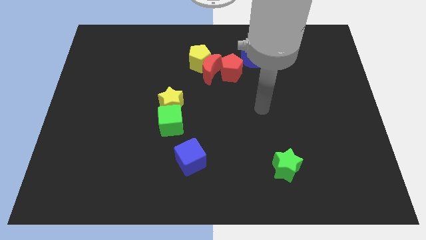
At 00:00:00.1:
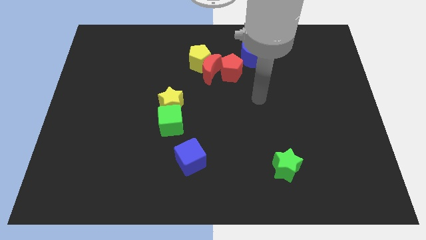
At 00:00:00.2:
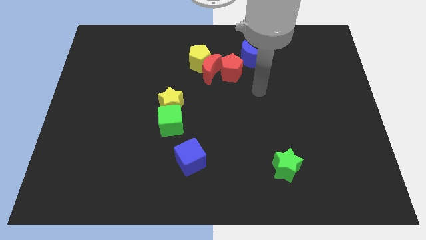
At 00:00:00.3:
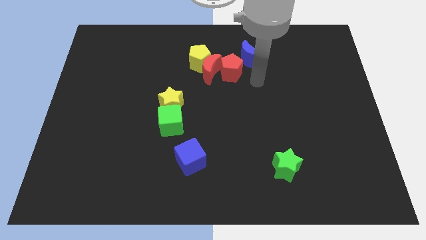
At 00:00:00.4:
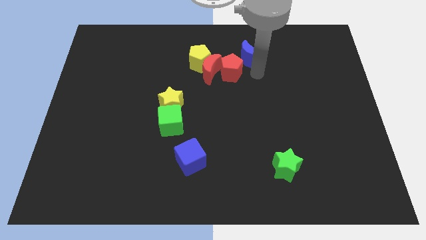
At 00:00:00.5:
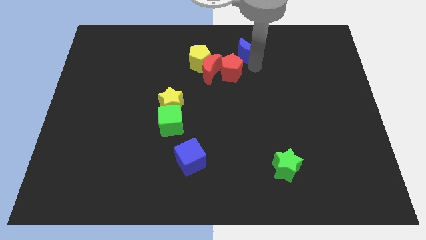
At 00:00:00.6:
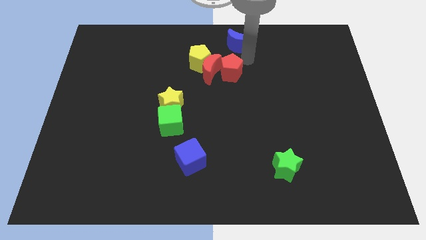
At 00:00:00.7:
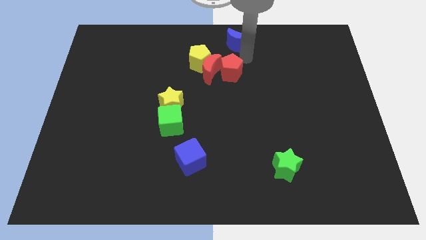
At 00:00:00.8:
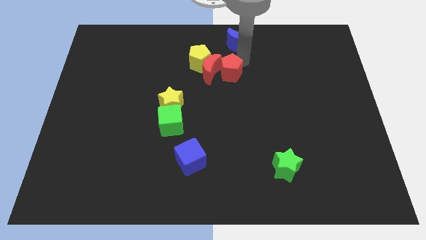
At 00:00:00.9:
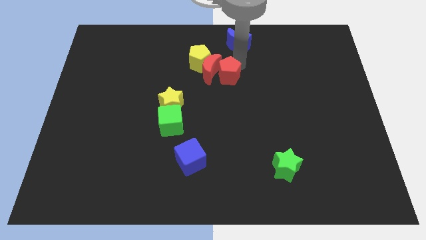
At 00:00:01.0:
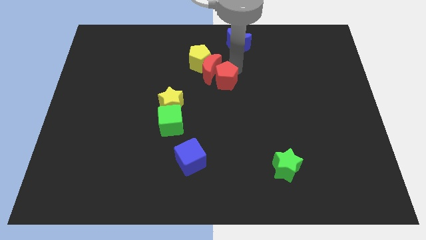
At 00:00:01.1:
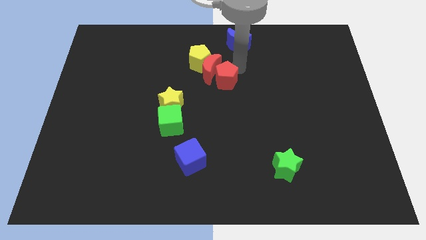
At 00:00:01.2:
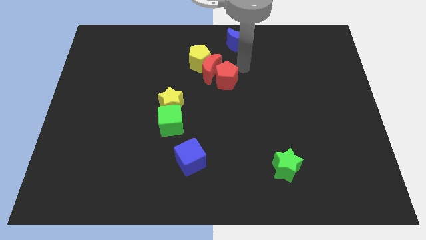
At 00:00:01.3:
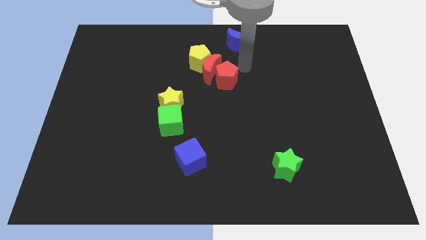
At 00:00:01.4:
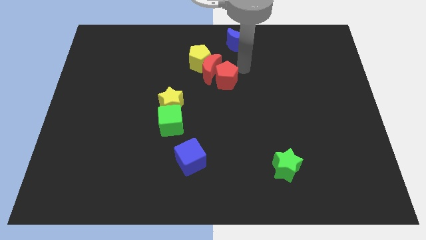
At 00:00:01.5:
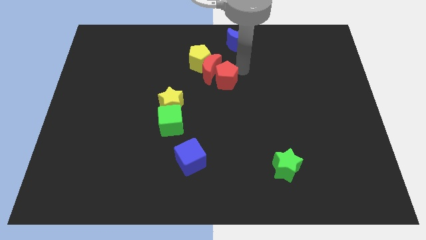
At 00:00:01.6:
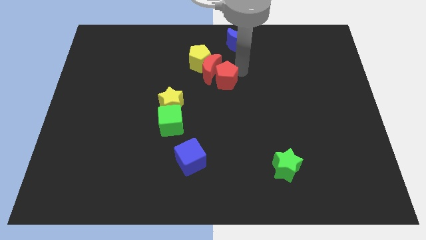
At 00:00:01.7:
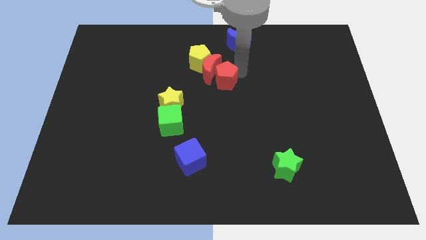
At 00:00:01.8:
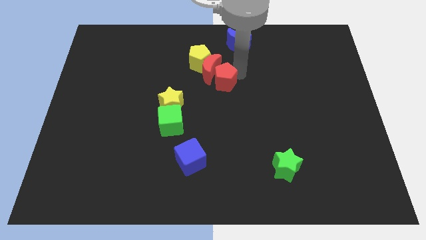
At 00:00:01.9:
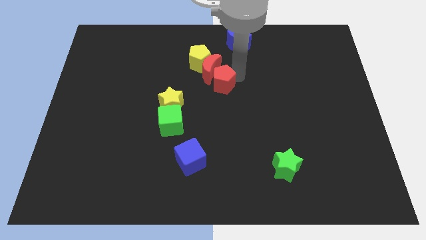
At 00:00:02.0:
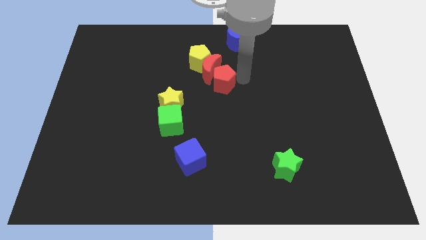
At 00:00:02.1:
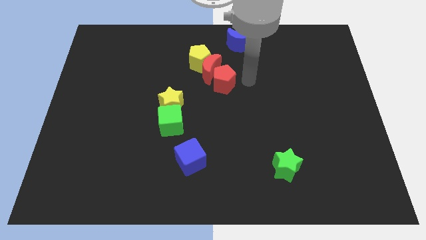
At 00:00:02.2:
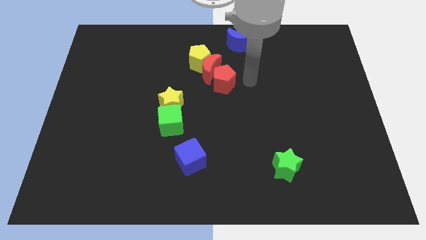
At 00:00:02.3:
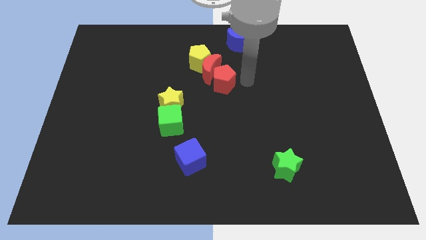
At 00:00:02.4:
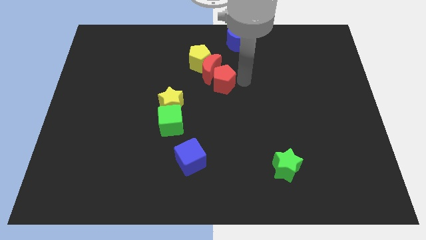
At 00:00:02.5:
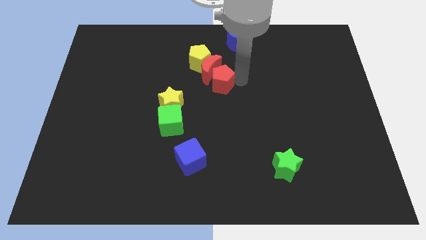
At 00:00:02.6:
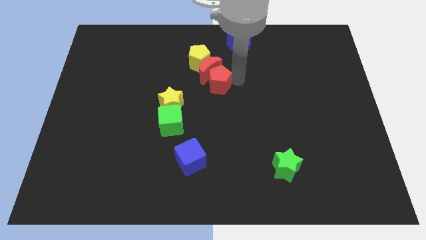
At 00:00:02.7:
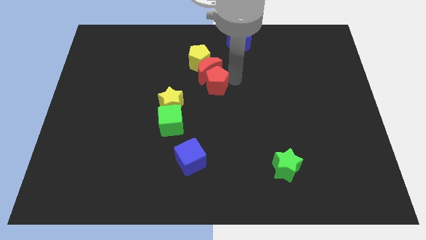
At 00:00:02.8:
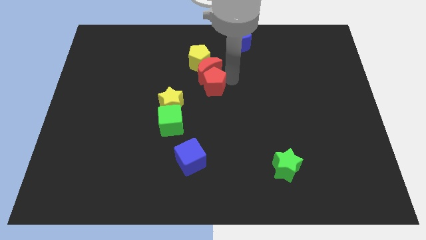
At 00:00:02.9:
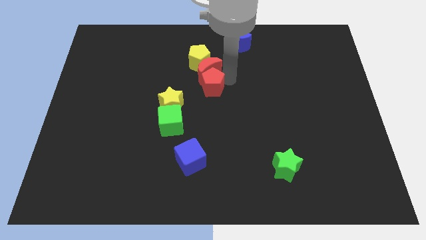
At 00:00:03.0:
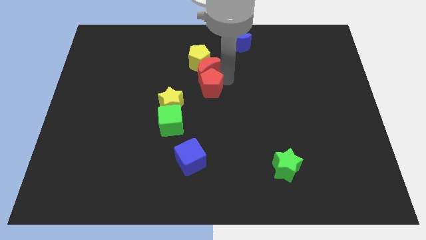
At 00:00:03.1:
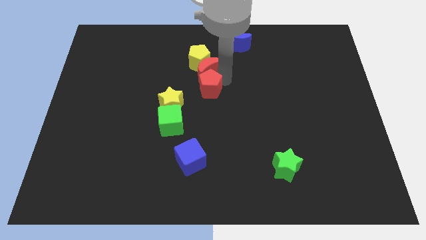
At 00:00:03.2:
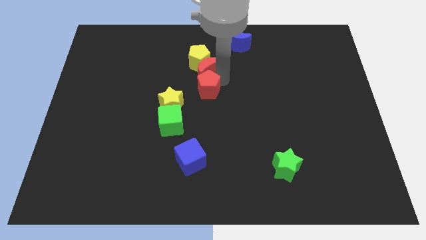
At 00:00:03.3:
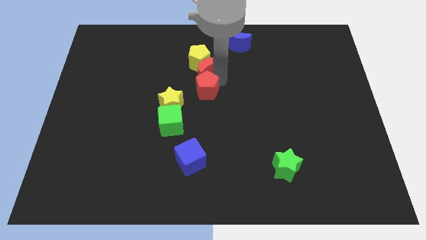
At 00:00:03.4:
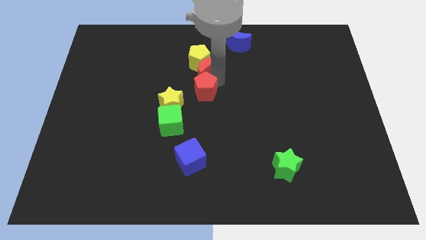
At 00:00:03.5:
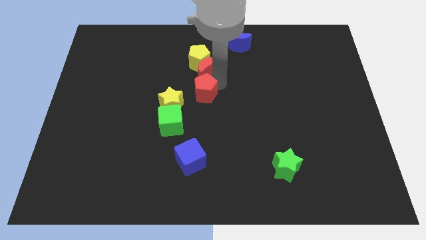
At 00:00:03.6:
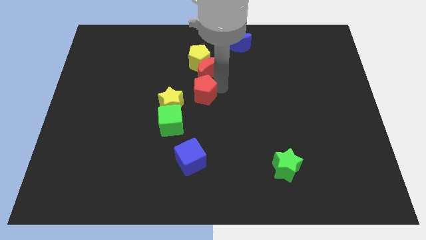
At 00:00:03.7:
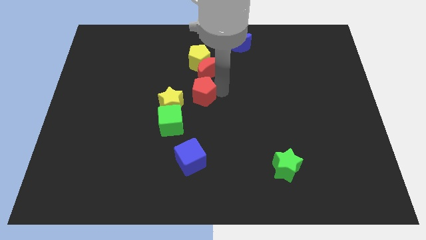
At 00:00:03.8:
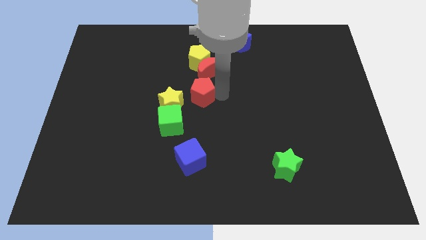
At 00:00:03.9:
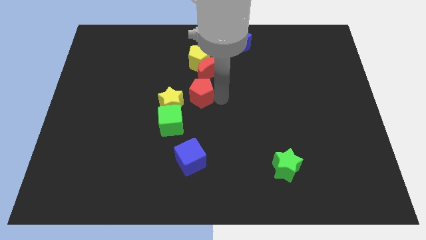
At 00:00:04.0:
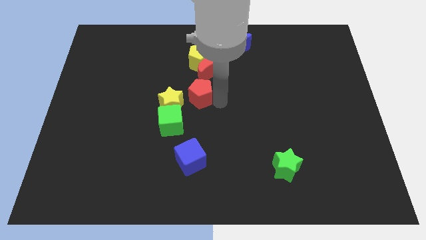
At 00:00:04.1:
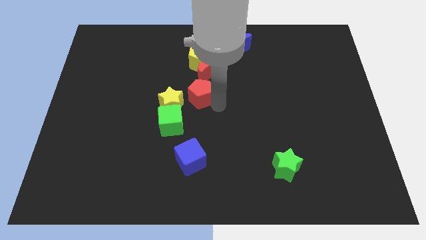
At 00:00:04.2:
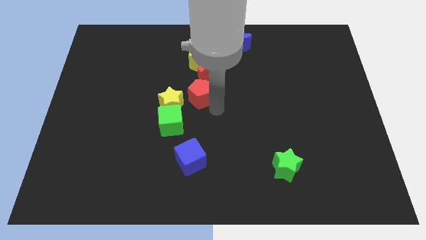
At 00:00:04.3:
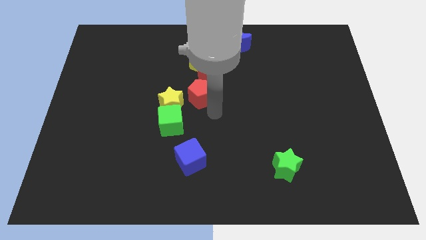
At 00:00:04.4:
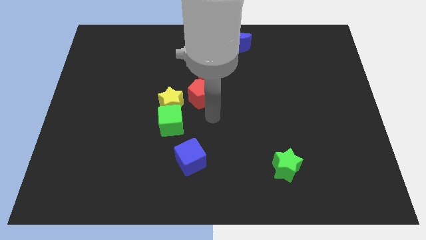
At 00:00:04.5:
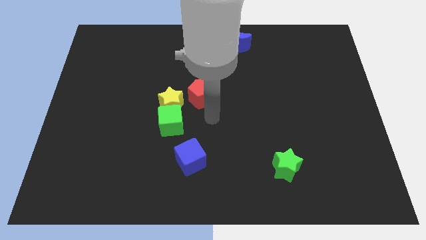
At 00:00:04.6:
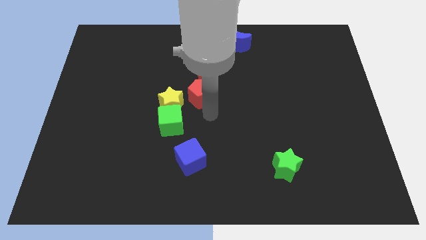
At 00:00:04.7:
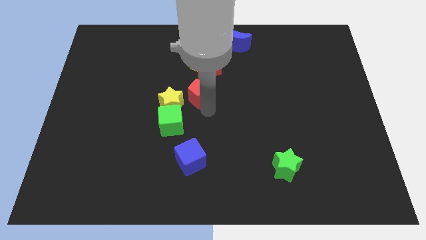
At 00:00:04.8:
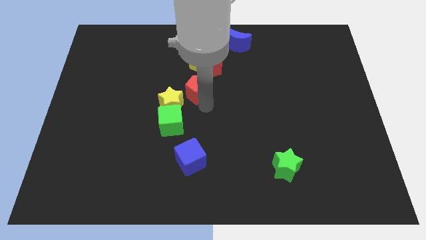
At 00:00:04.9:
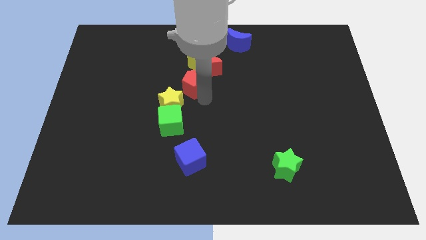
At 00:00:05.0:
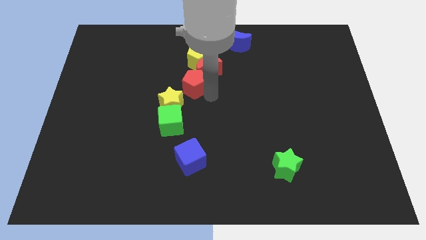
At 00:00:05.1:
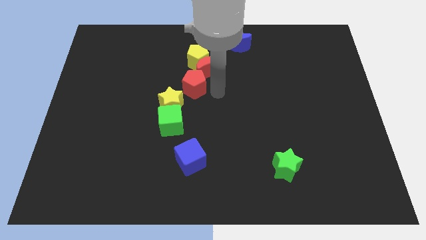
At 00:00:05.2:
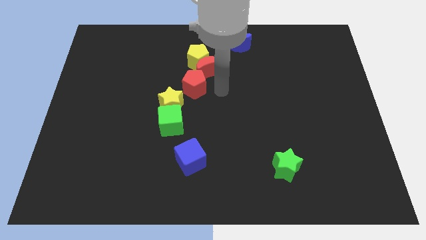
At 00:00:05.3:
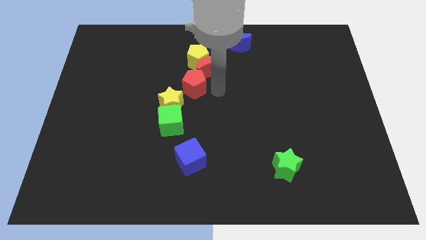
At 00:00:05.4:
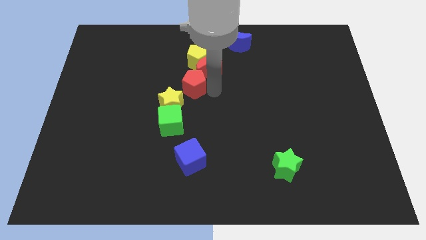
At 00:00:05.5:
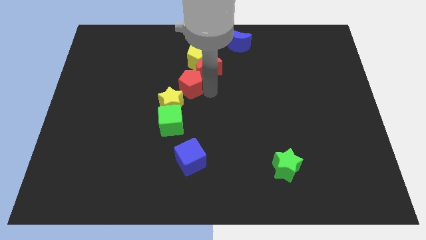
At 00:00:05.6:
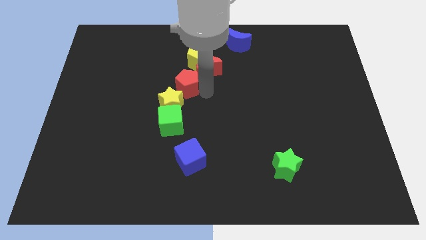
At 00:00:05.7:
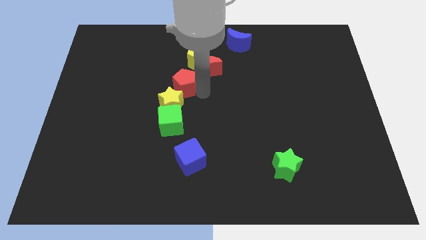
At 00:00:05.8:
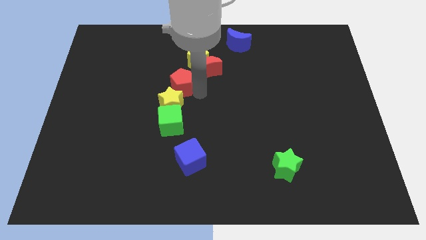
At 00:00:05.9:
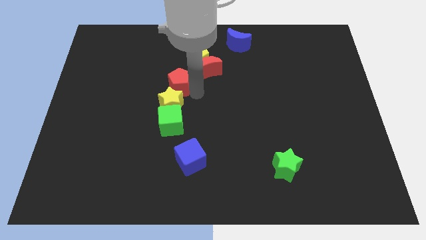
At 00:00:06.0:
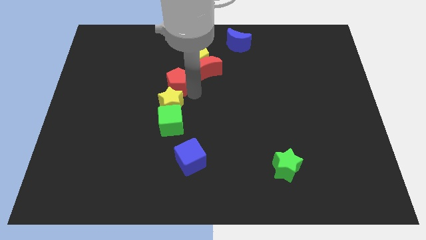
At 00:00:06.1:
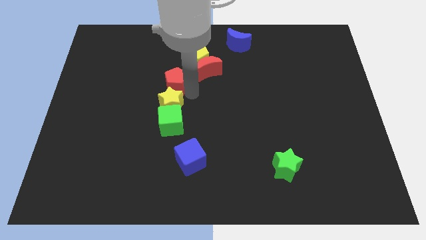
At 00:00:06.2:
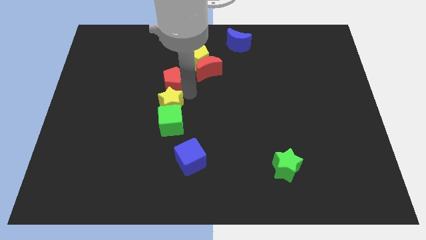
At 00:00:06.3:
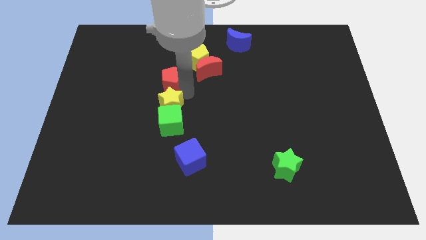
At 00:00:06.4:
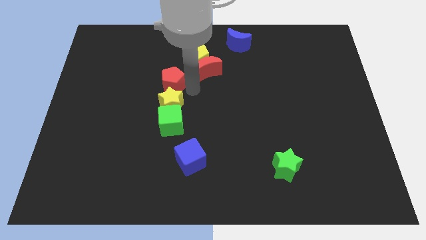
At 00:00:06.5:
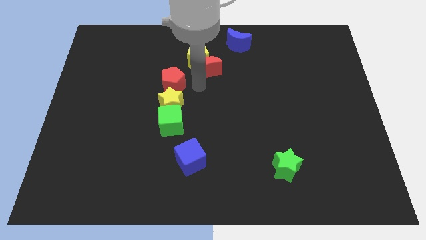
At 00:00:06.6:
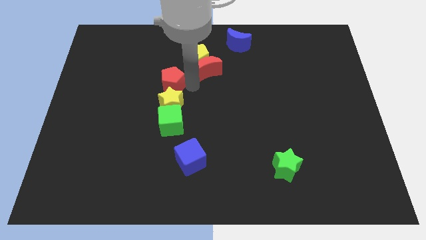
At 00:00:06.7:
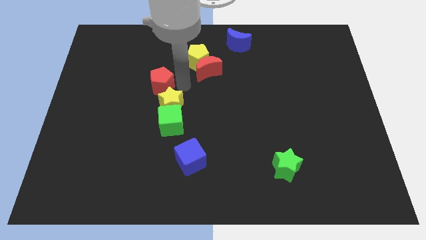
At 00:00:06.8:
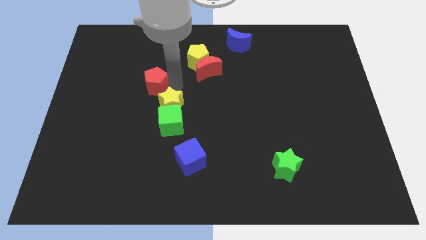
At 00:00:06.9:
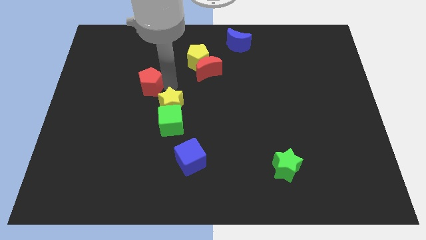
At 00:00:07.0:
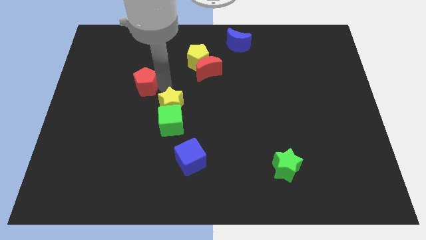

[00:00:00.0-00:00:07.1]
move the red pentagon left

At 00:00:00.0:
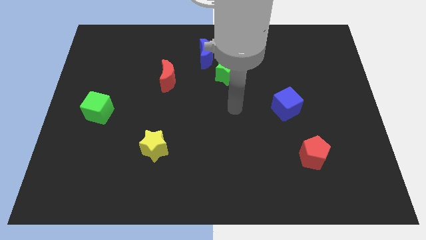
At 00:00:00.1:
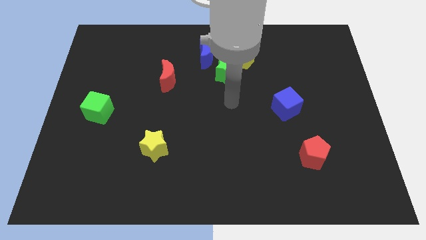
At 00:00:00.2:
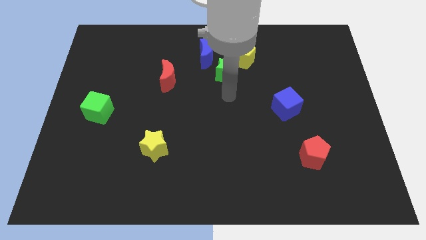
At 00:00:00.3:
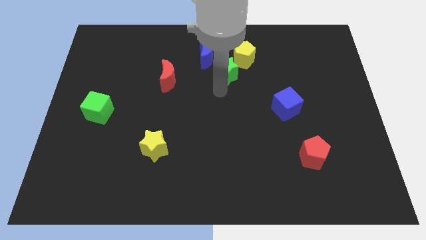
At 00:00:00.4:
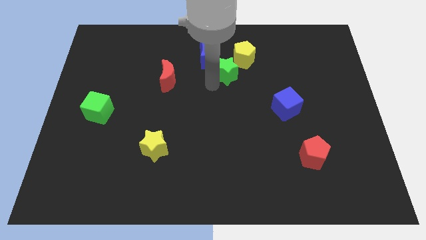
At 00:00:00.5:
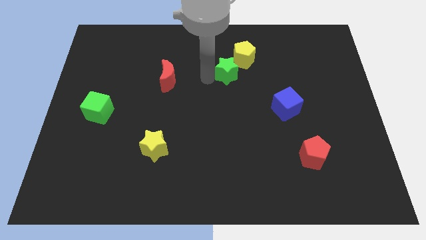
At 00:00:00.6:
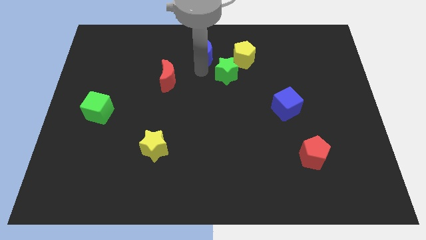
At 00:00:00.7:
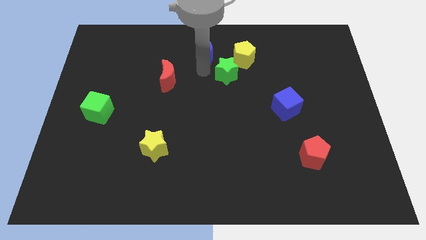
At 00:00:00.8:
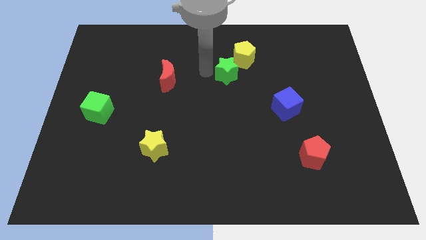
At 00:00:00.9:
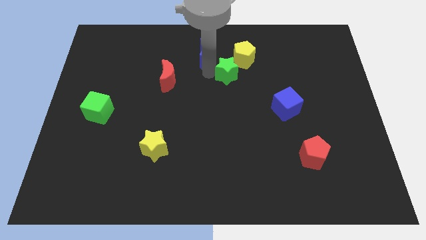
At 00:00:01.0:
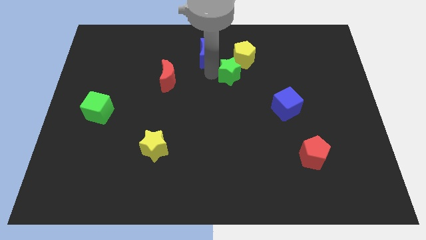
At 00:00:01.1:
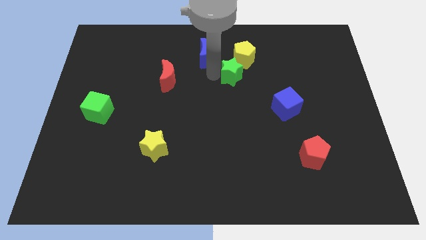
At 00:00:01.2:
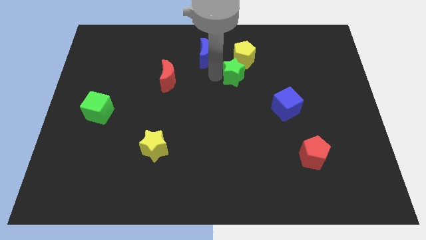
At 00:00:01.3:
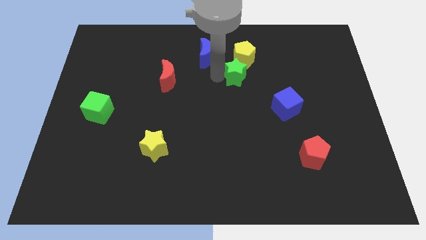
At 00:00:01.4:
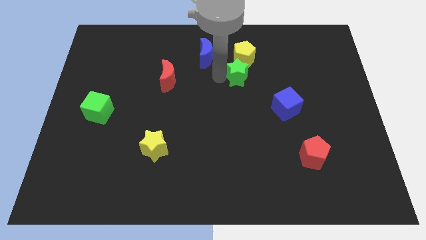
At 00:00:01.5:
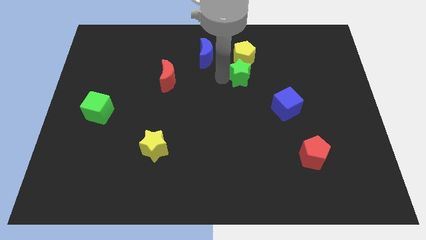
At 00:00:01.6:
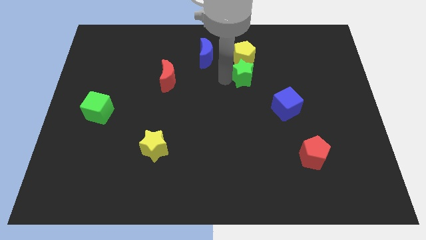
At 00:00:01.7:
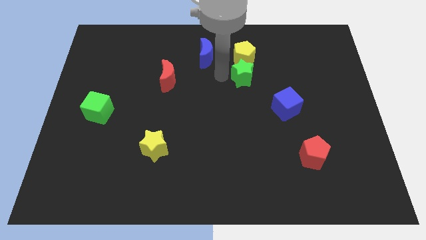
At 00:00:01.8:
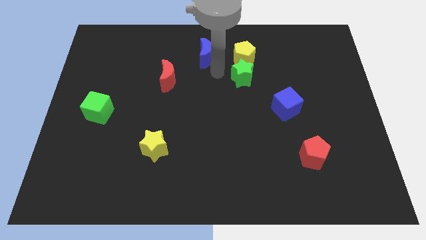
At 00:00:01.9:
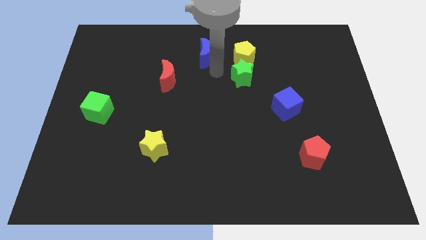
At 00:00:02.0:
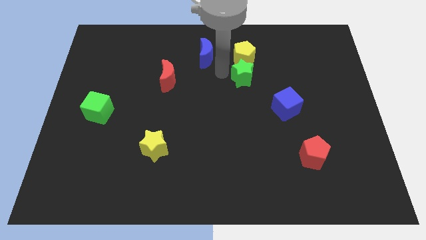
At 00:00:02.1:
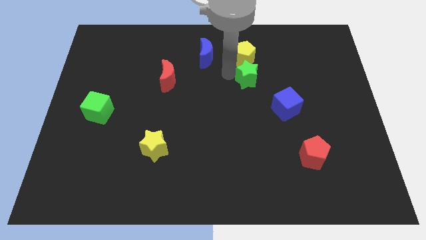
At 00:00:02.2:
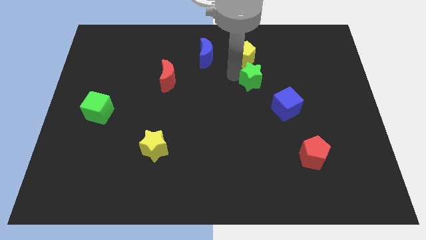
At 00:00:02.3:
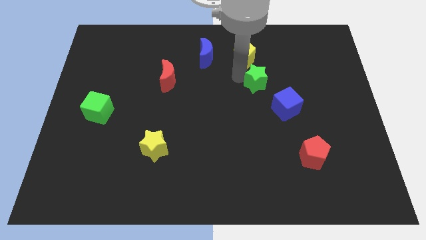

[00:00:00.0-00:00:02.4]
slightly move the green star to the right
